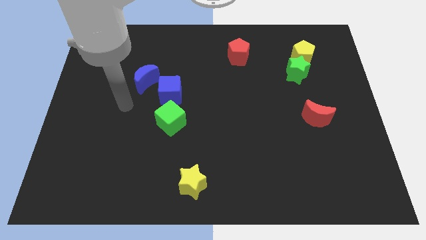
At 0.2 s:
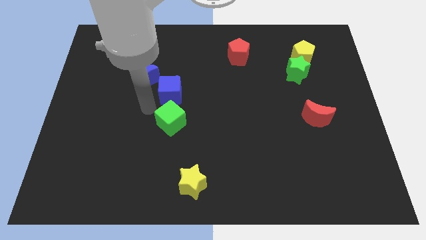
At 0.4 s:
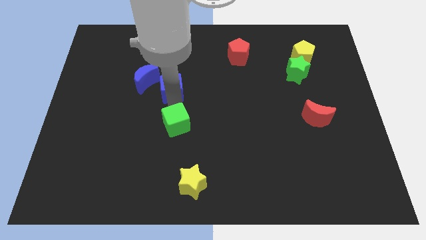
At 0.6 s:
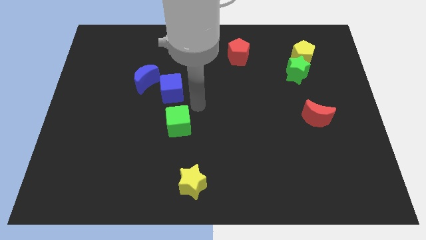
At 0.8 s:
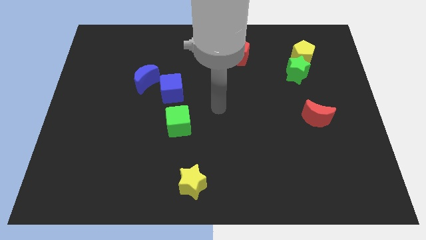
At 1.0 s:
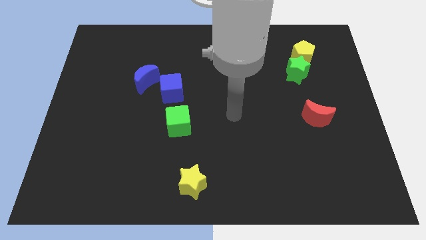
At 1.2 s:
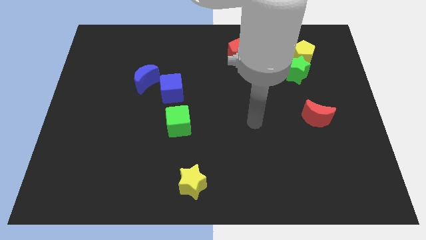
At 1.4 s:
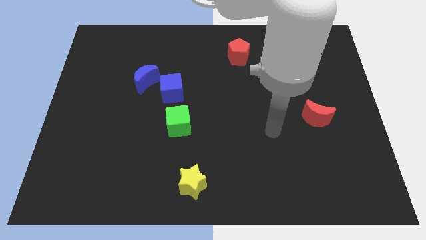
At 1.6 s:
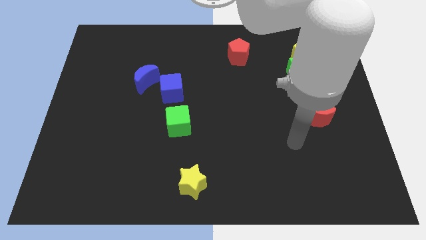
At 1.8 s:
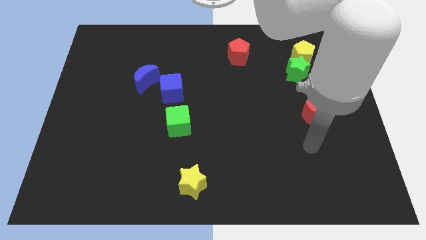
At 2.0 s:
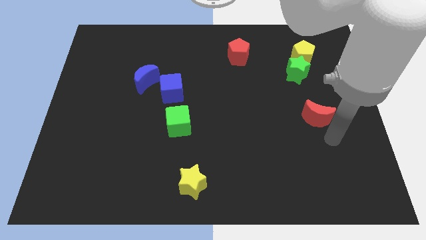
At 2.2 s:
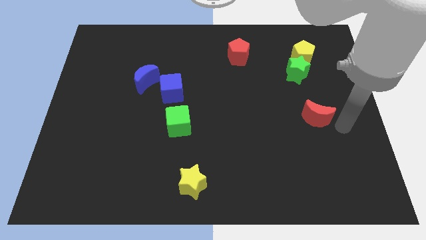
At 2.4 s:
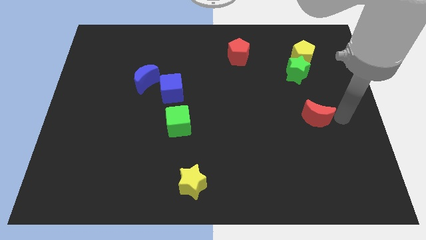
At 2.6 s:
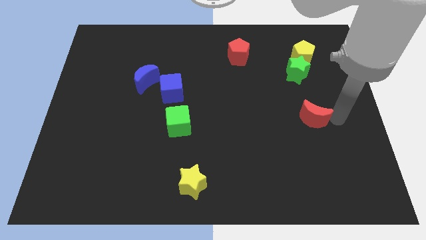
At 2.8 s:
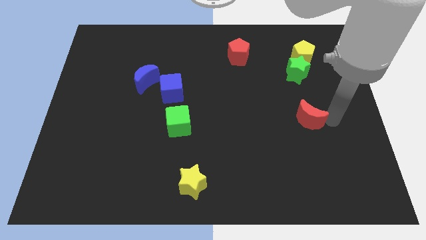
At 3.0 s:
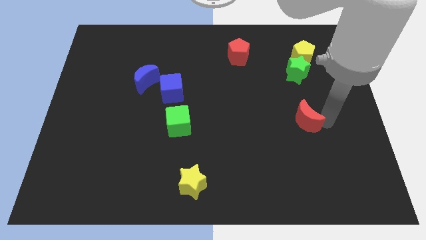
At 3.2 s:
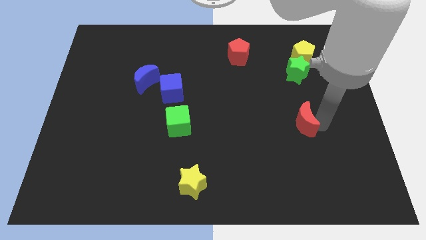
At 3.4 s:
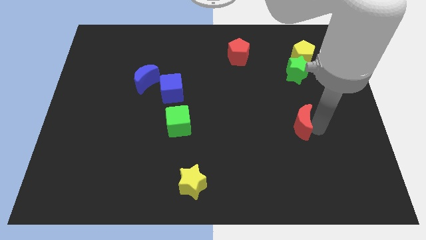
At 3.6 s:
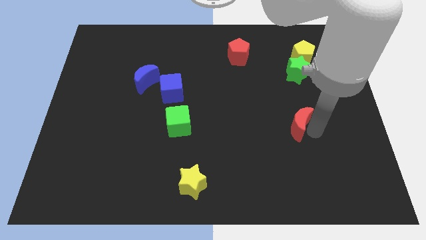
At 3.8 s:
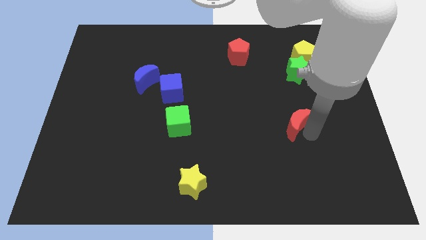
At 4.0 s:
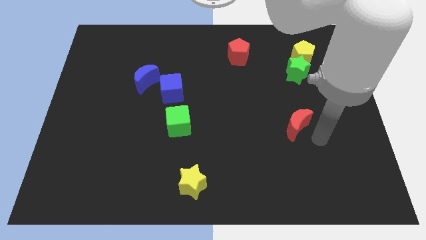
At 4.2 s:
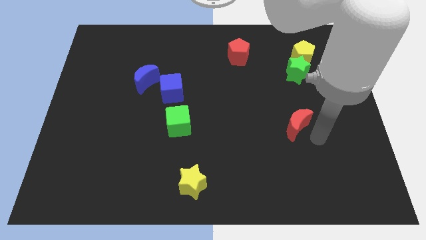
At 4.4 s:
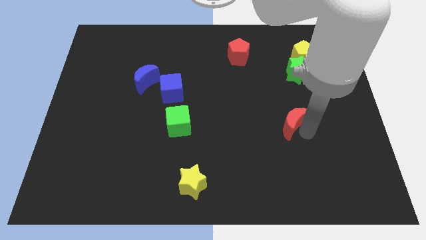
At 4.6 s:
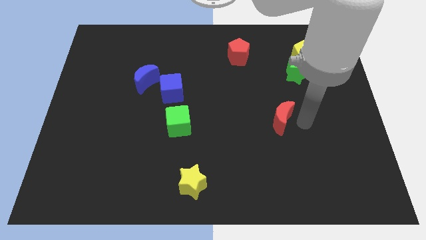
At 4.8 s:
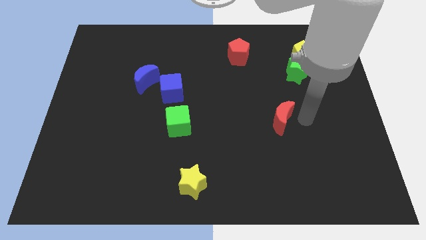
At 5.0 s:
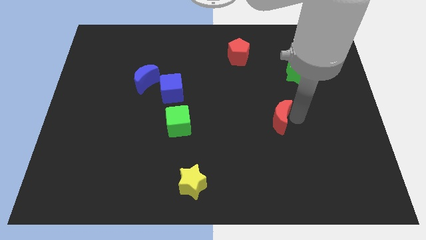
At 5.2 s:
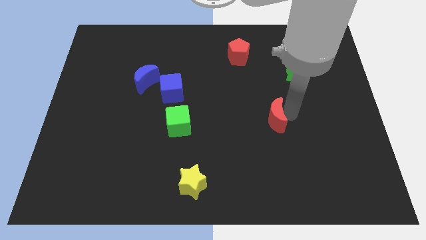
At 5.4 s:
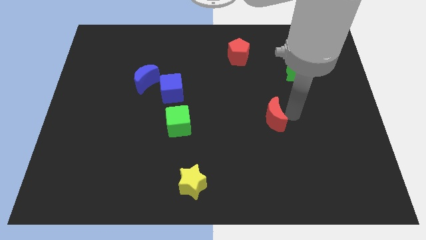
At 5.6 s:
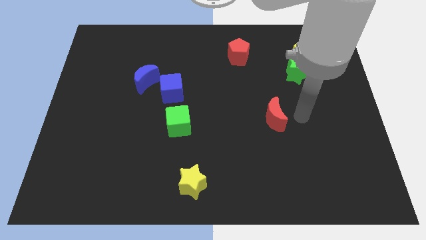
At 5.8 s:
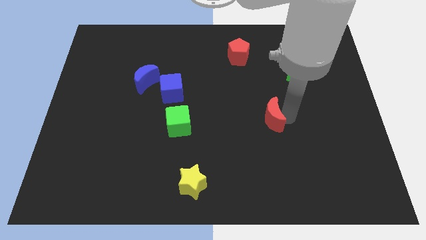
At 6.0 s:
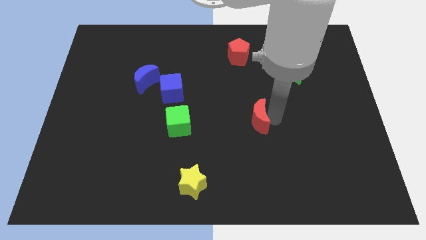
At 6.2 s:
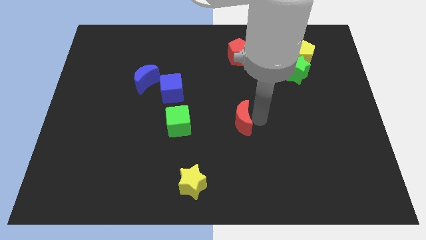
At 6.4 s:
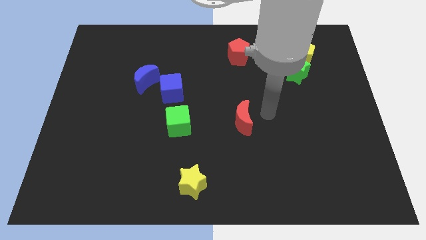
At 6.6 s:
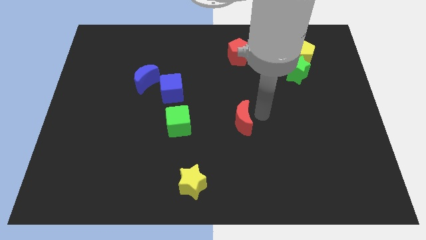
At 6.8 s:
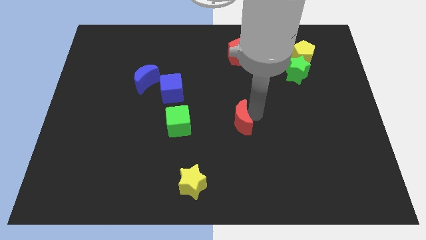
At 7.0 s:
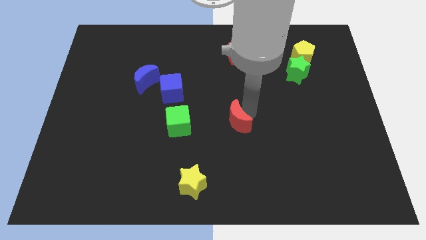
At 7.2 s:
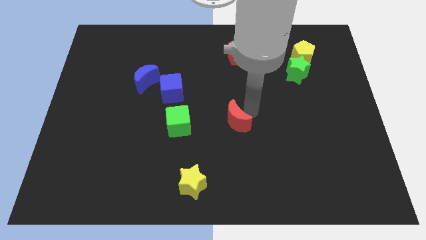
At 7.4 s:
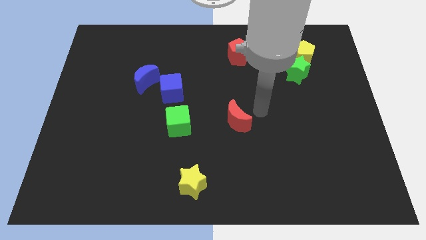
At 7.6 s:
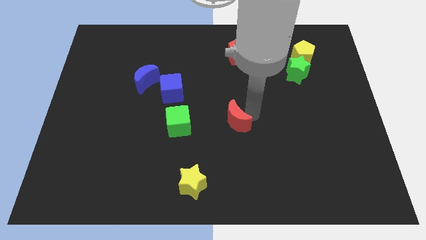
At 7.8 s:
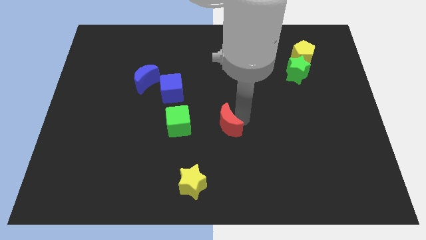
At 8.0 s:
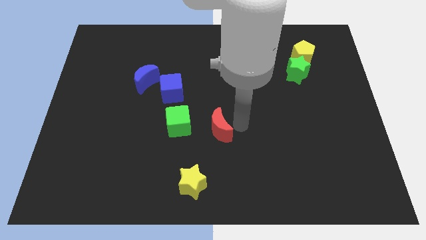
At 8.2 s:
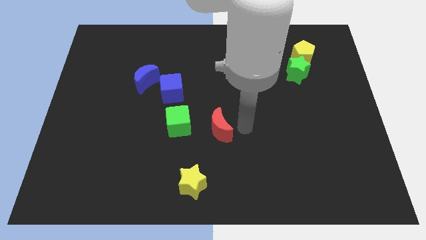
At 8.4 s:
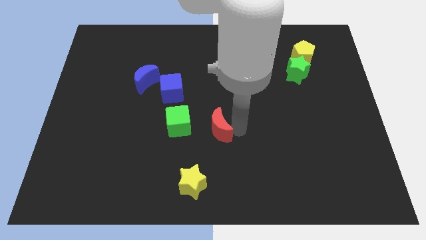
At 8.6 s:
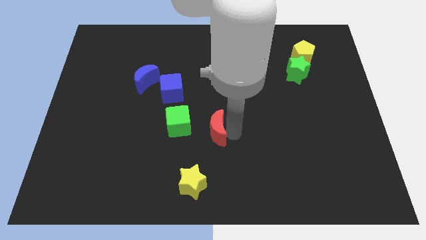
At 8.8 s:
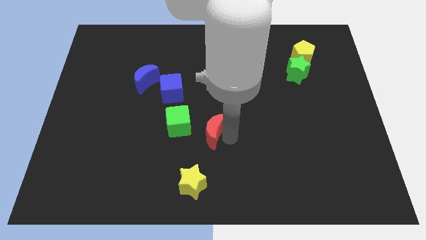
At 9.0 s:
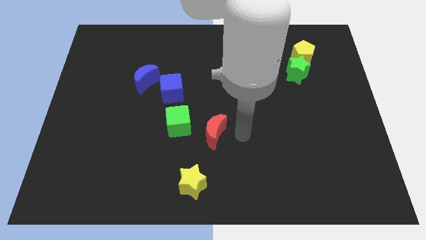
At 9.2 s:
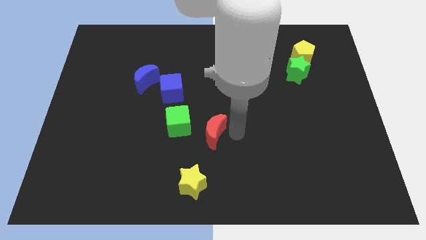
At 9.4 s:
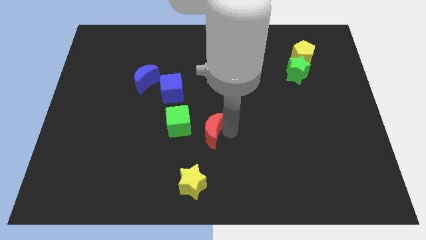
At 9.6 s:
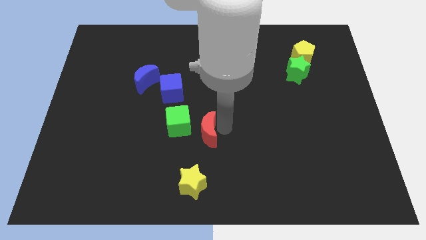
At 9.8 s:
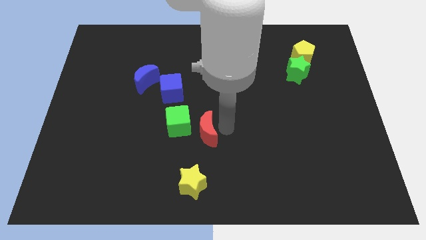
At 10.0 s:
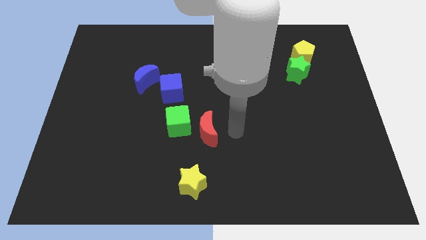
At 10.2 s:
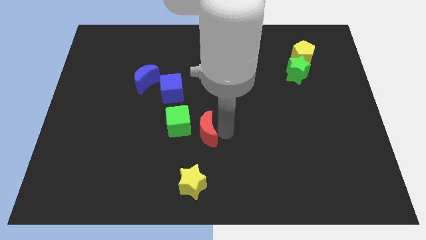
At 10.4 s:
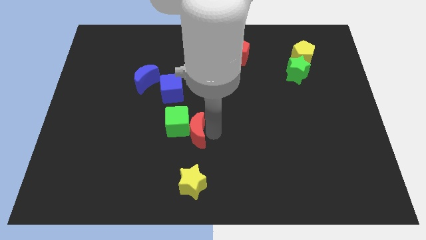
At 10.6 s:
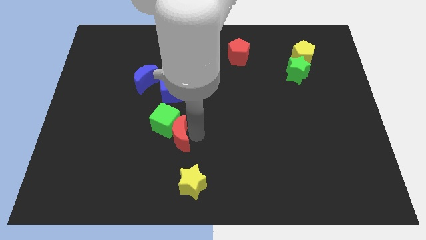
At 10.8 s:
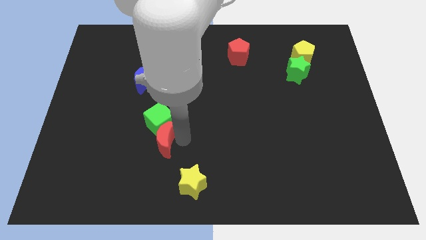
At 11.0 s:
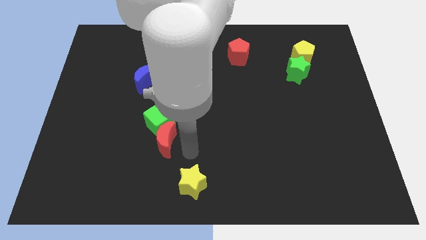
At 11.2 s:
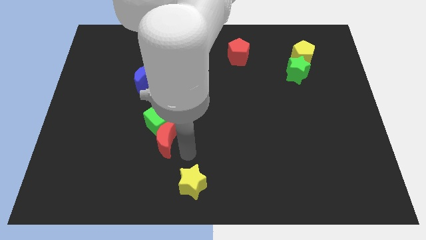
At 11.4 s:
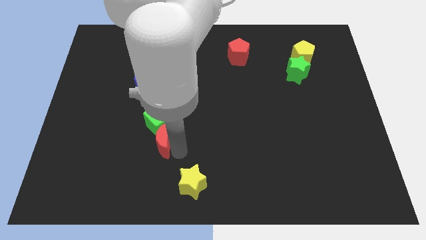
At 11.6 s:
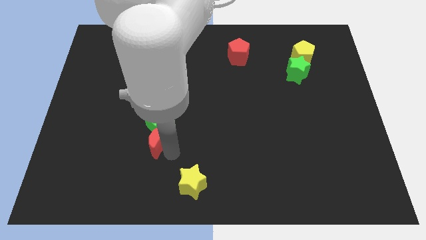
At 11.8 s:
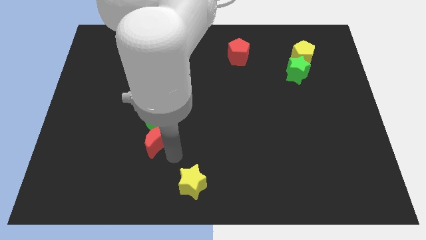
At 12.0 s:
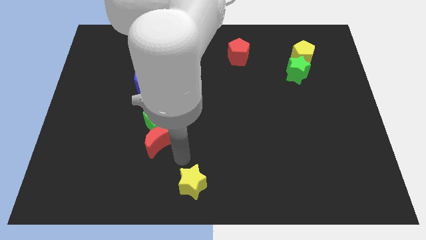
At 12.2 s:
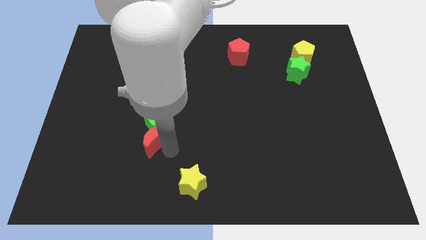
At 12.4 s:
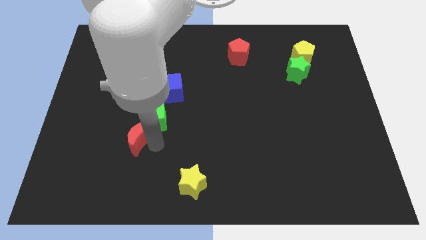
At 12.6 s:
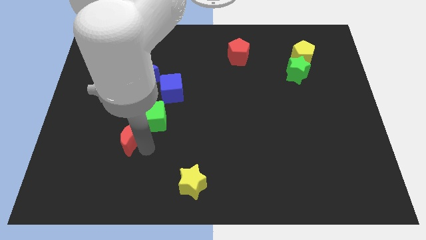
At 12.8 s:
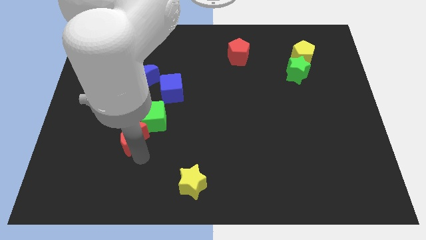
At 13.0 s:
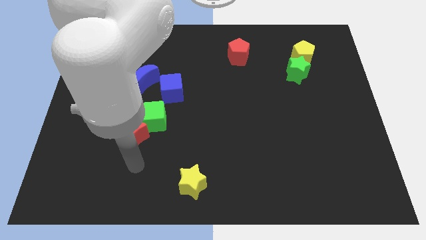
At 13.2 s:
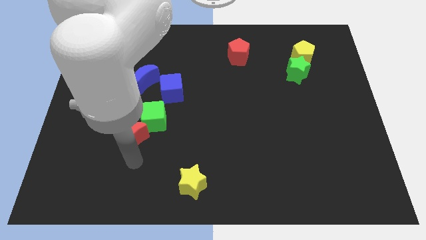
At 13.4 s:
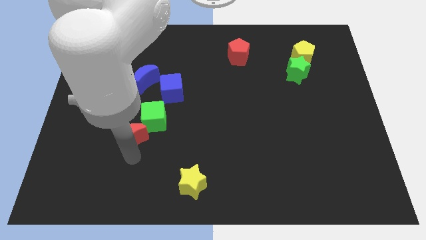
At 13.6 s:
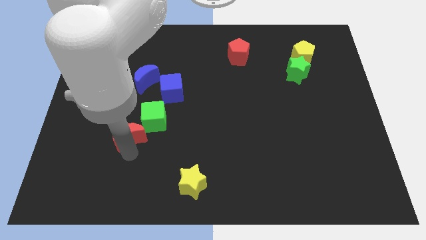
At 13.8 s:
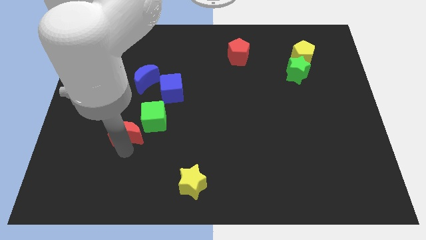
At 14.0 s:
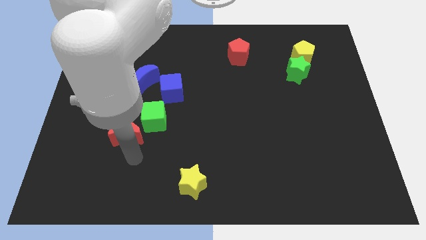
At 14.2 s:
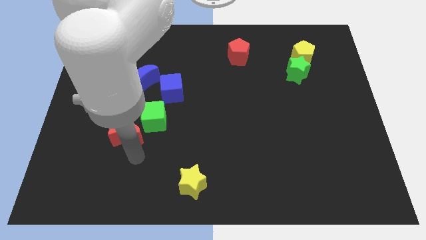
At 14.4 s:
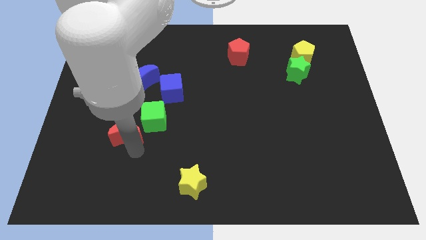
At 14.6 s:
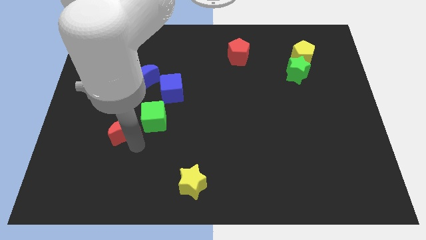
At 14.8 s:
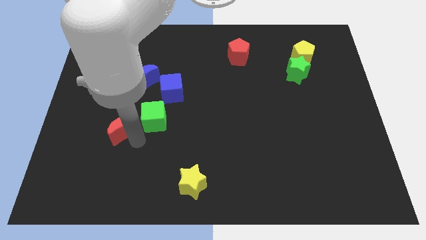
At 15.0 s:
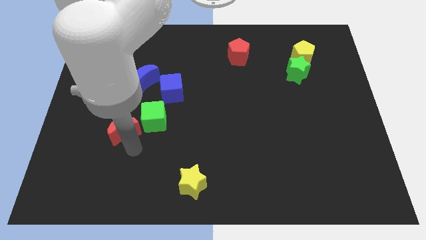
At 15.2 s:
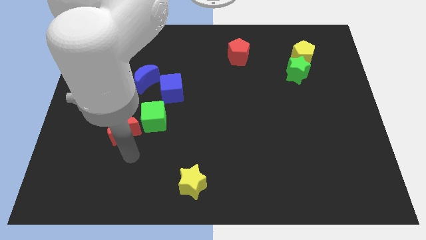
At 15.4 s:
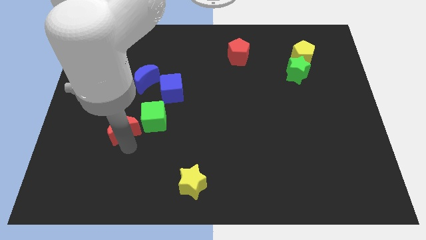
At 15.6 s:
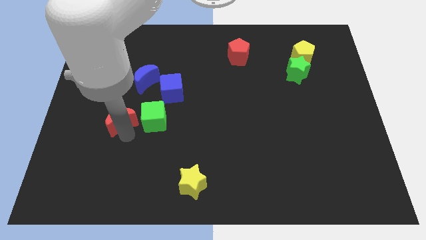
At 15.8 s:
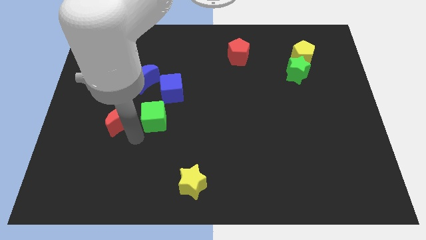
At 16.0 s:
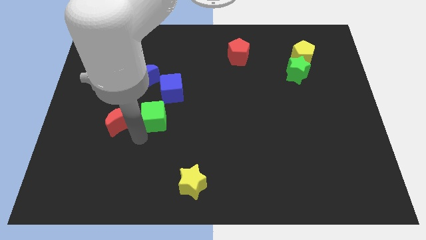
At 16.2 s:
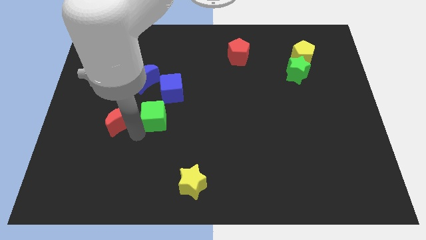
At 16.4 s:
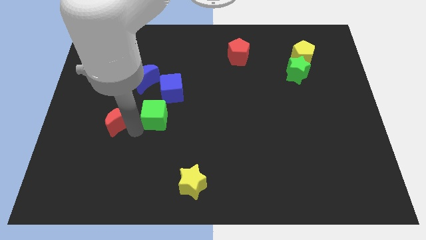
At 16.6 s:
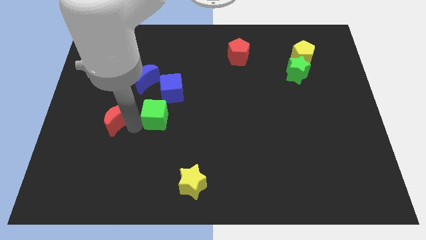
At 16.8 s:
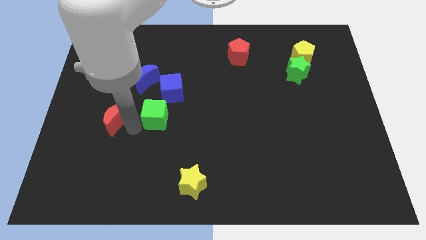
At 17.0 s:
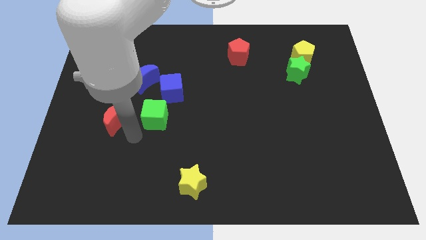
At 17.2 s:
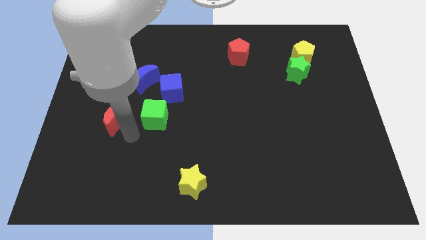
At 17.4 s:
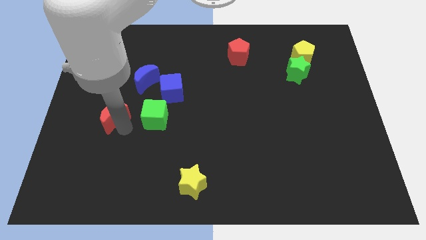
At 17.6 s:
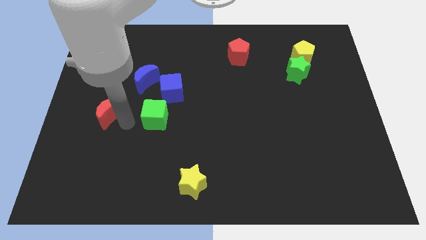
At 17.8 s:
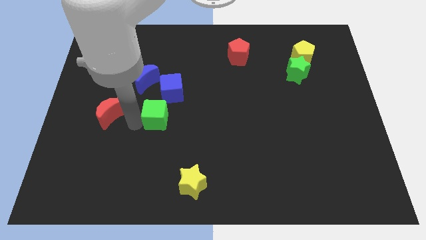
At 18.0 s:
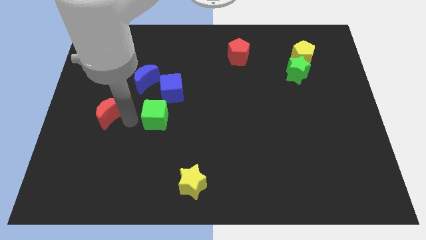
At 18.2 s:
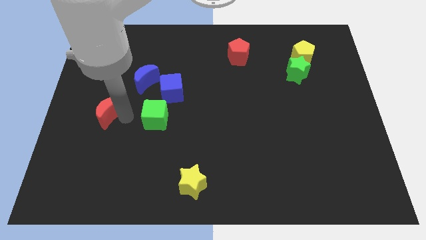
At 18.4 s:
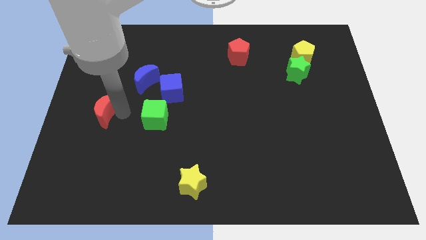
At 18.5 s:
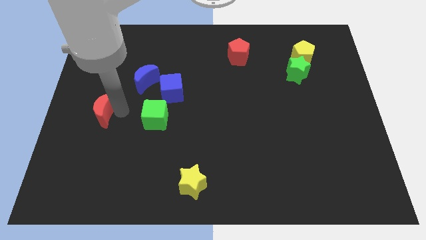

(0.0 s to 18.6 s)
slide the red moon to the center left
